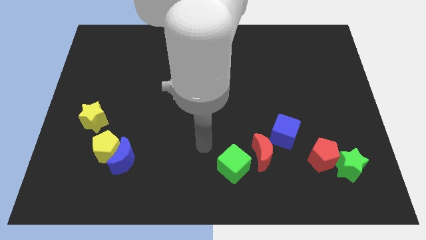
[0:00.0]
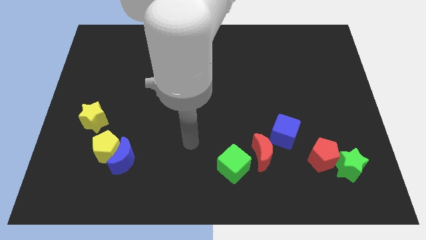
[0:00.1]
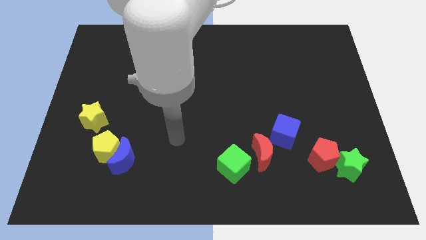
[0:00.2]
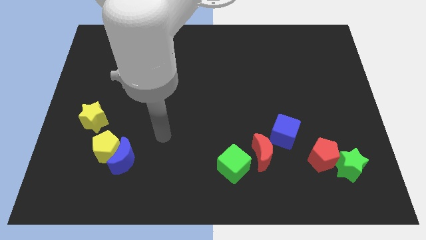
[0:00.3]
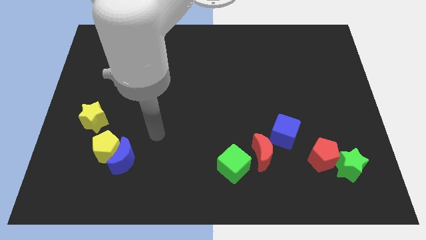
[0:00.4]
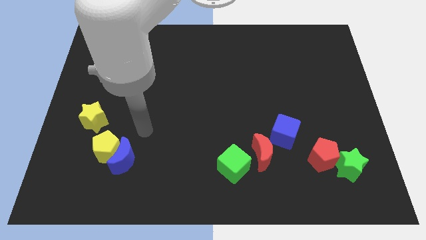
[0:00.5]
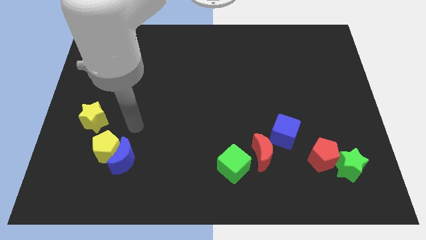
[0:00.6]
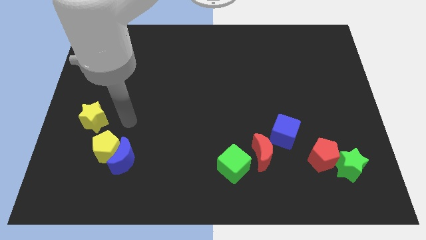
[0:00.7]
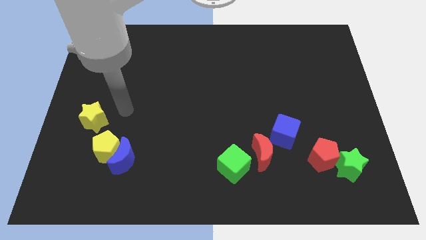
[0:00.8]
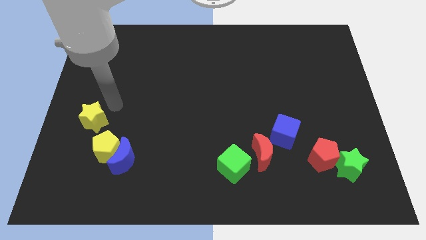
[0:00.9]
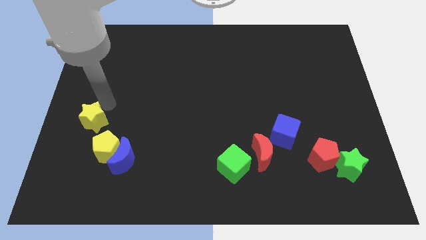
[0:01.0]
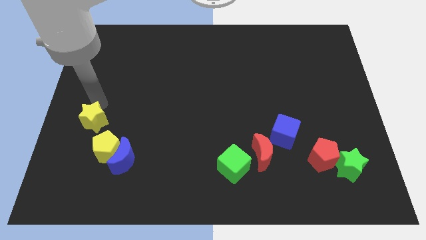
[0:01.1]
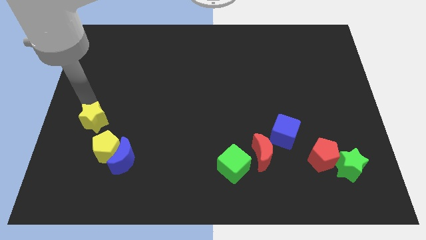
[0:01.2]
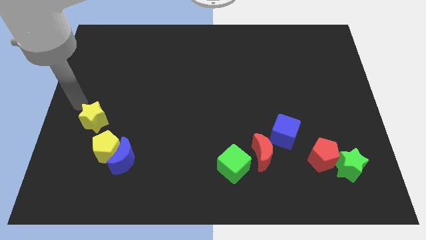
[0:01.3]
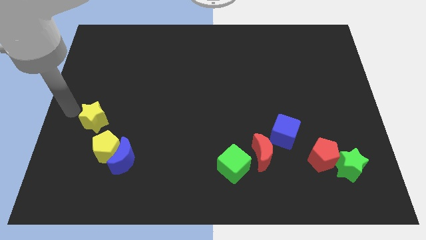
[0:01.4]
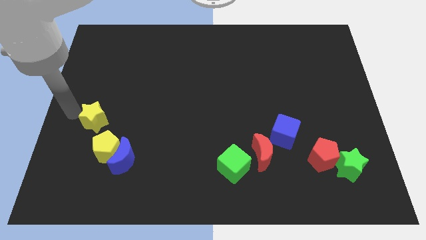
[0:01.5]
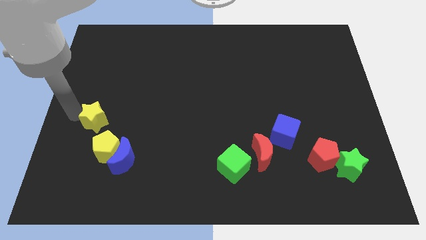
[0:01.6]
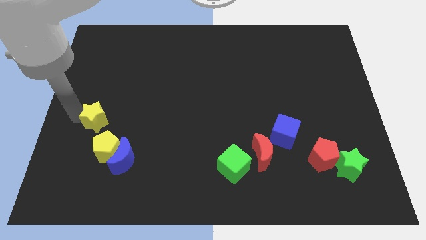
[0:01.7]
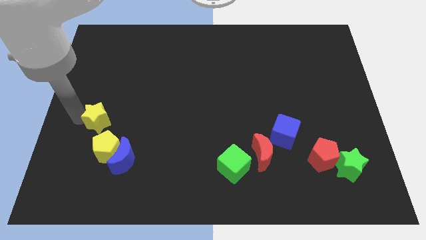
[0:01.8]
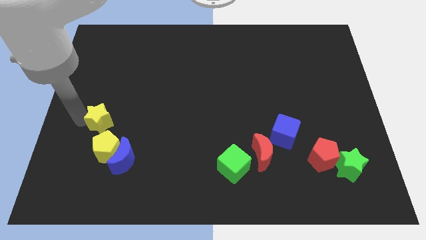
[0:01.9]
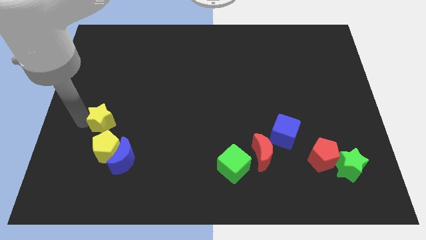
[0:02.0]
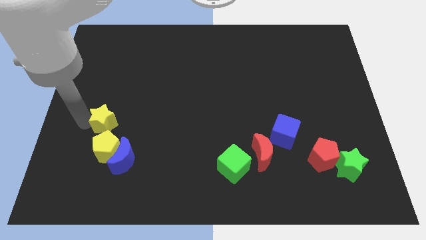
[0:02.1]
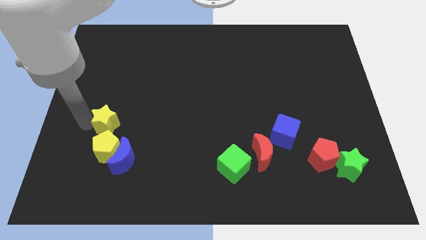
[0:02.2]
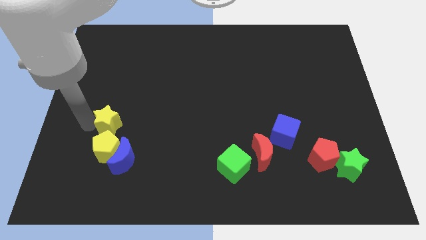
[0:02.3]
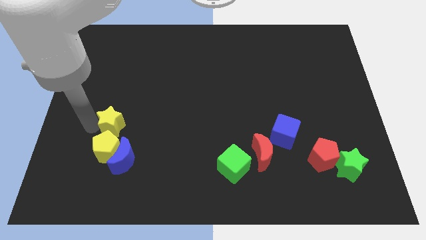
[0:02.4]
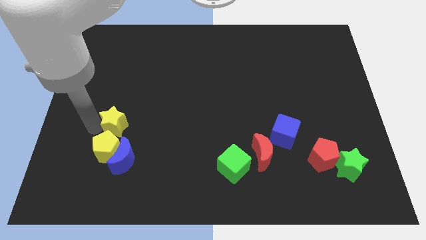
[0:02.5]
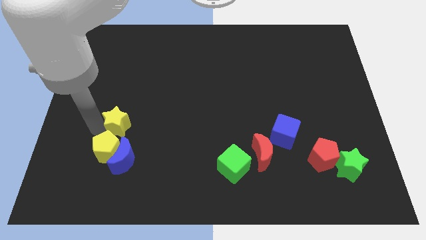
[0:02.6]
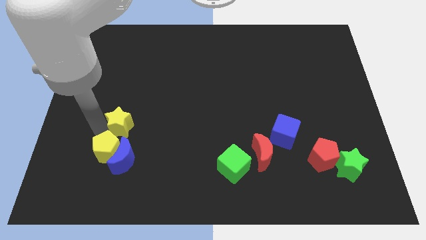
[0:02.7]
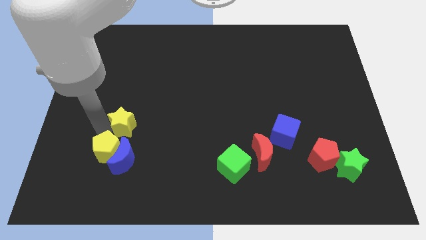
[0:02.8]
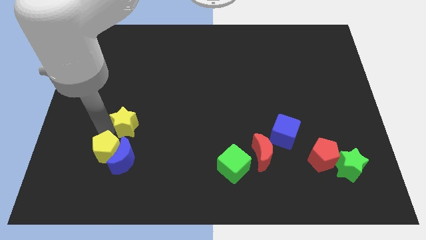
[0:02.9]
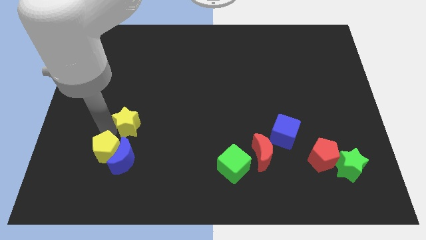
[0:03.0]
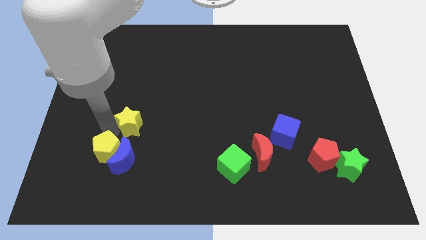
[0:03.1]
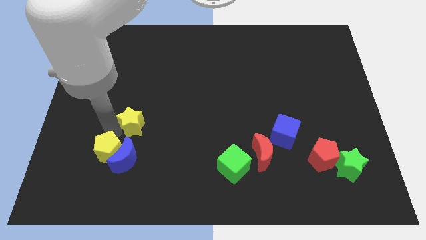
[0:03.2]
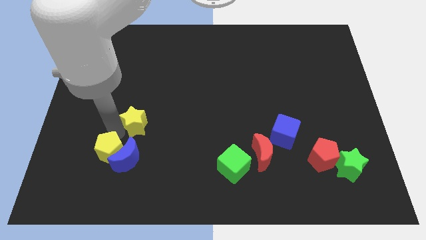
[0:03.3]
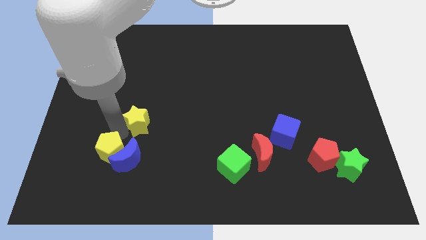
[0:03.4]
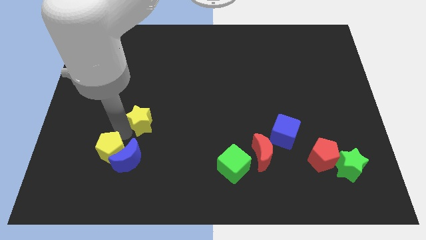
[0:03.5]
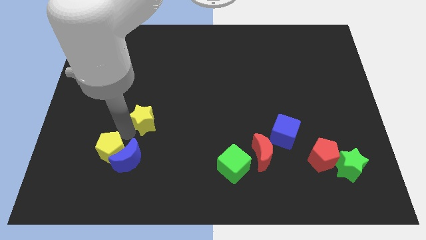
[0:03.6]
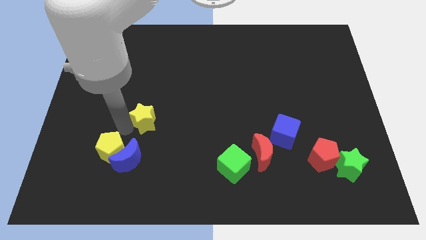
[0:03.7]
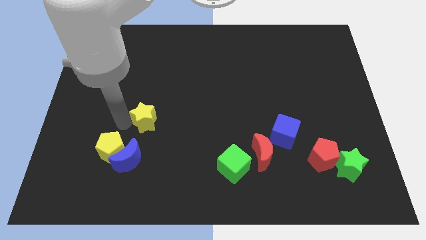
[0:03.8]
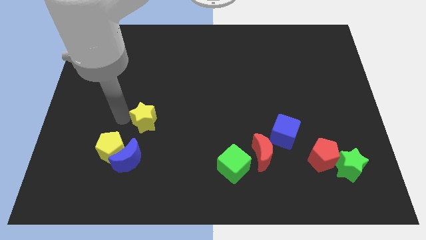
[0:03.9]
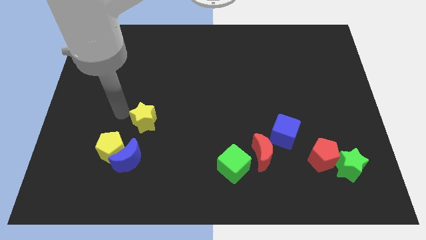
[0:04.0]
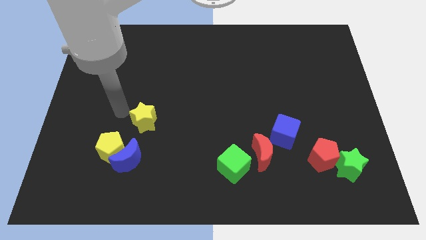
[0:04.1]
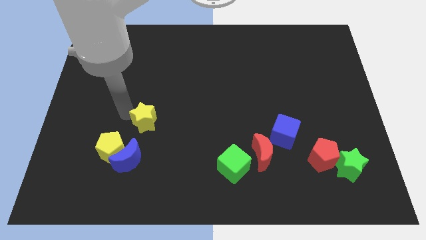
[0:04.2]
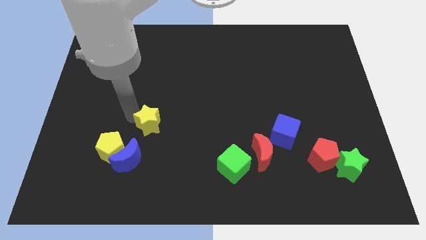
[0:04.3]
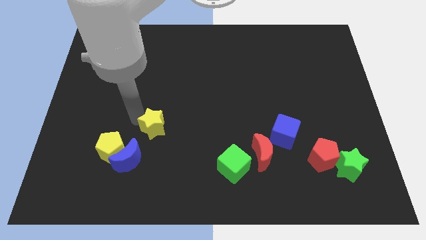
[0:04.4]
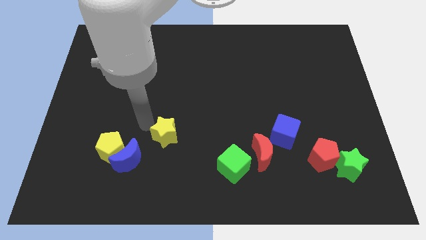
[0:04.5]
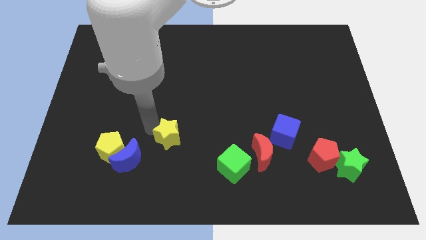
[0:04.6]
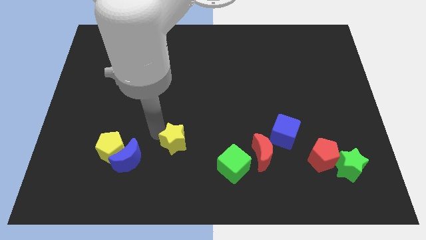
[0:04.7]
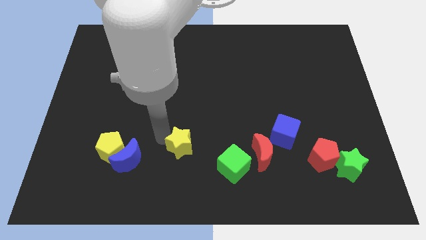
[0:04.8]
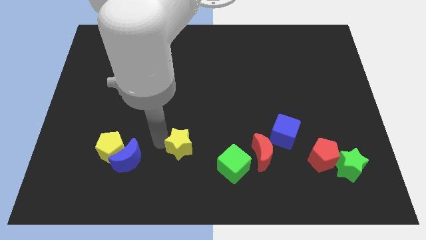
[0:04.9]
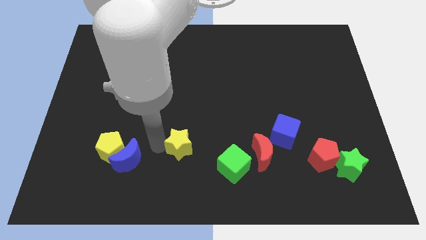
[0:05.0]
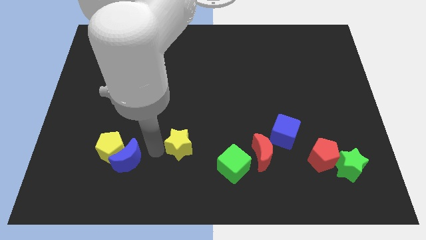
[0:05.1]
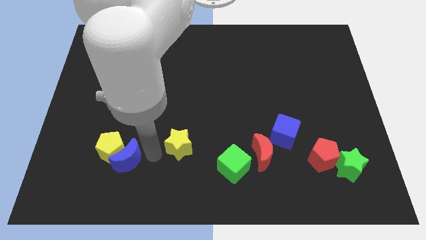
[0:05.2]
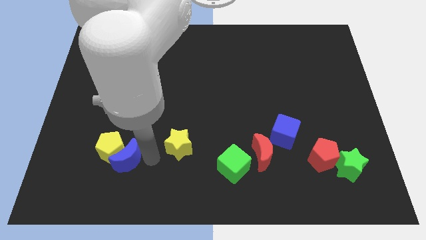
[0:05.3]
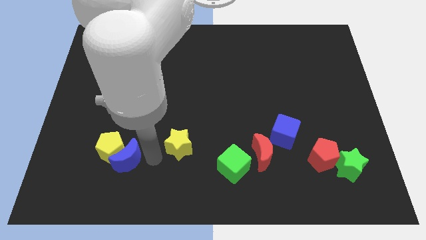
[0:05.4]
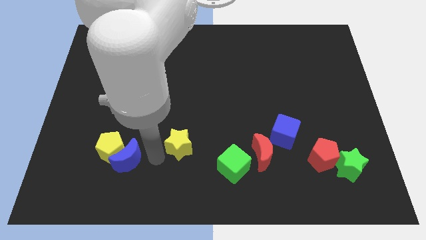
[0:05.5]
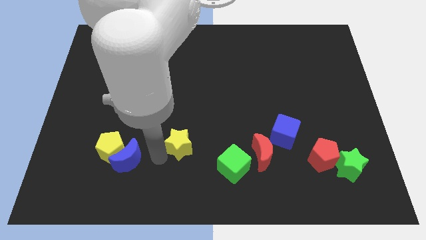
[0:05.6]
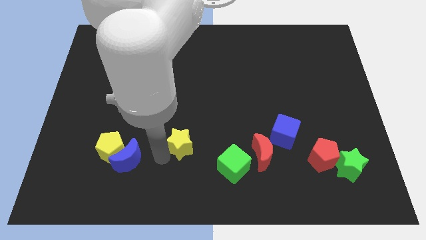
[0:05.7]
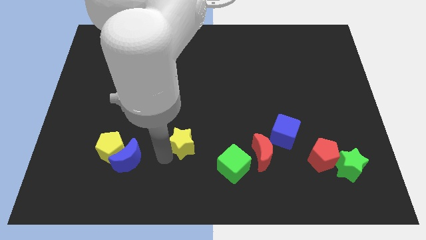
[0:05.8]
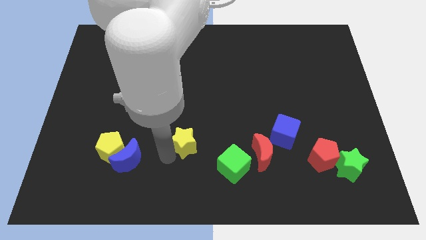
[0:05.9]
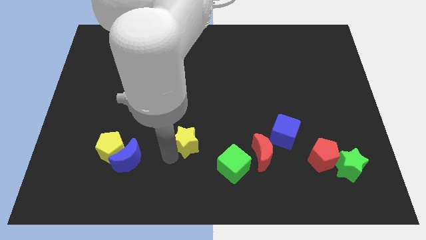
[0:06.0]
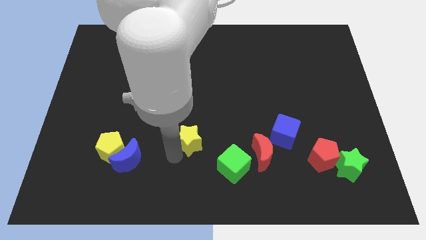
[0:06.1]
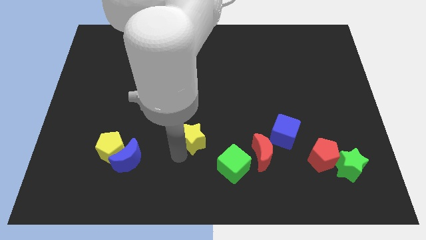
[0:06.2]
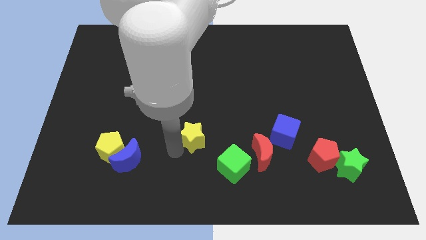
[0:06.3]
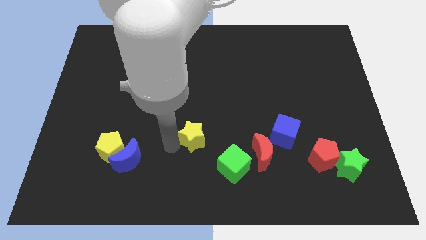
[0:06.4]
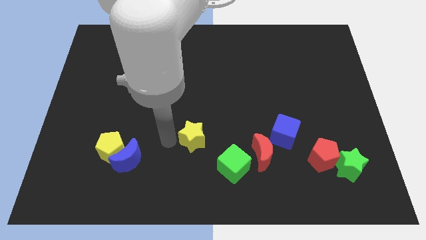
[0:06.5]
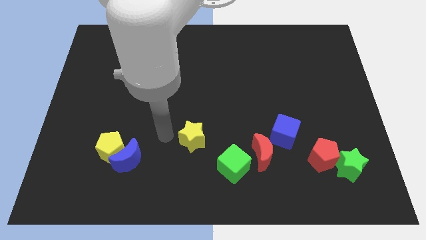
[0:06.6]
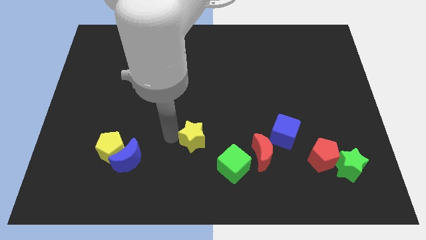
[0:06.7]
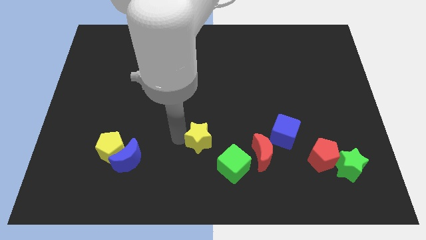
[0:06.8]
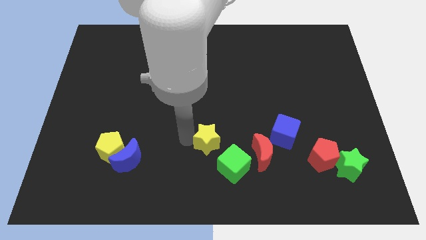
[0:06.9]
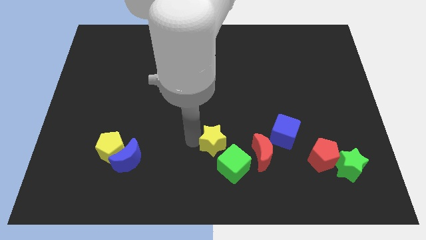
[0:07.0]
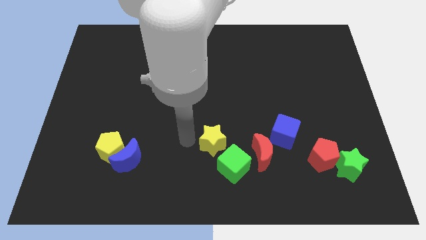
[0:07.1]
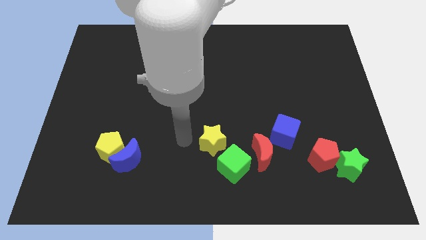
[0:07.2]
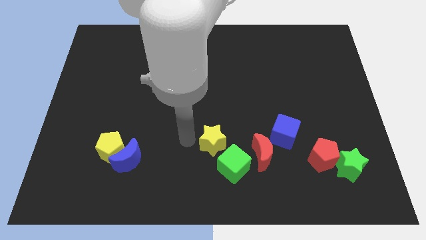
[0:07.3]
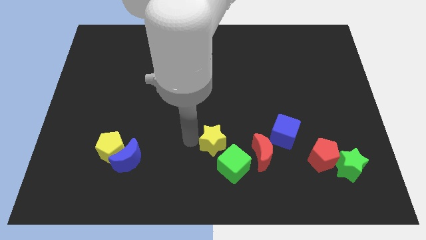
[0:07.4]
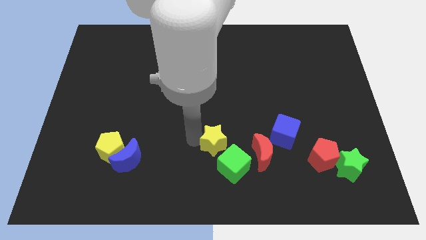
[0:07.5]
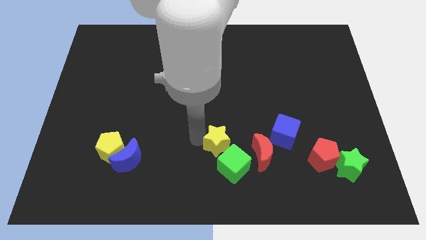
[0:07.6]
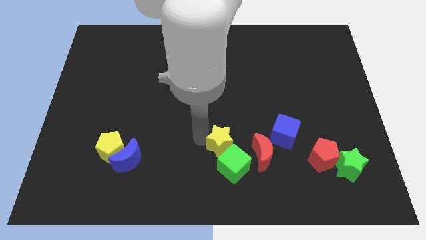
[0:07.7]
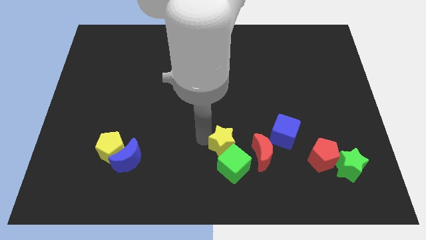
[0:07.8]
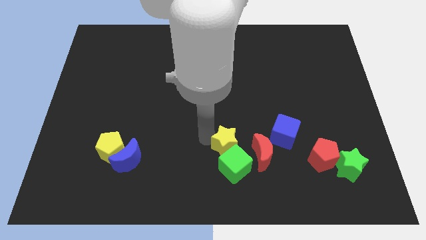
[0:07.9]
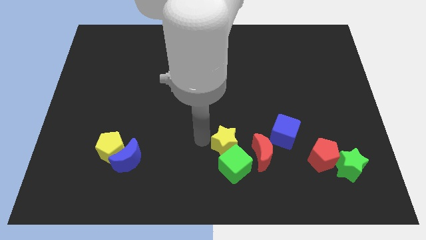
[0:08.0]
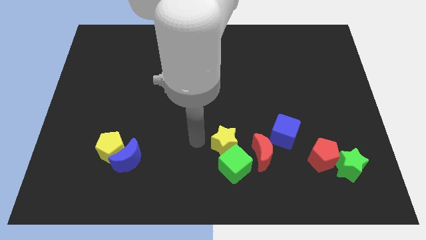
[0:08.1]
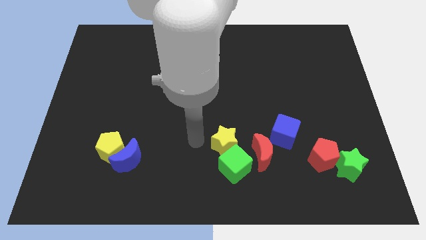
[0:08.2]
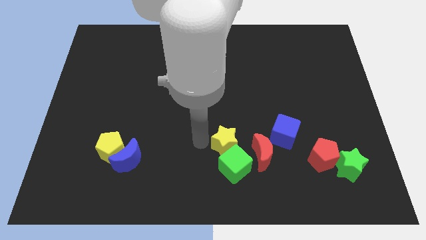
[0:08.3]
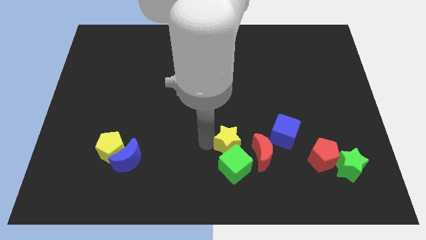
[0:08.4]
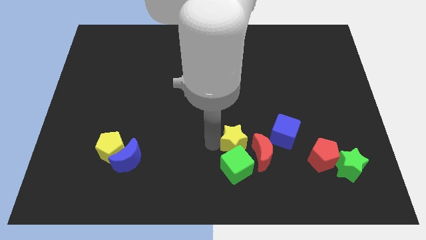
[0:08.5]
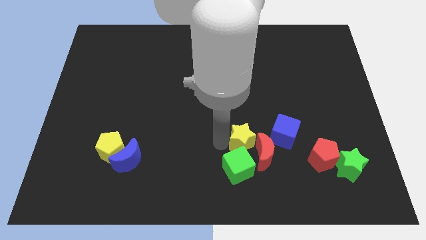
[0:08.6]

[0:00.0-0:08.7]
push the yellow star next to the red moon
